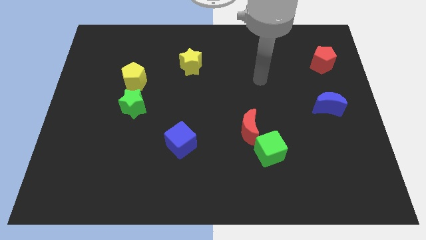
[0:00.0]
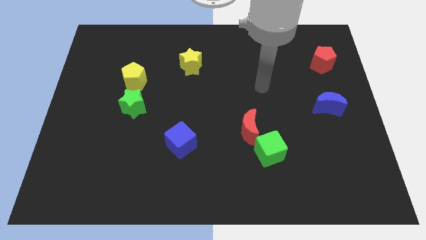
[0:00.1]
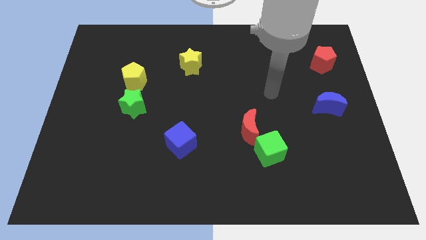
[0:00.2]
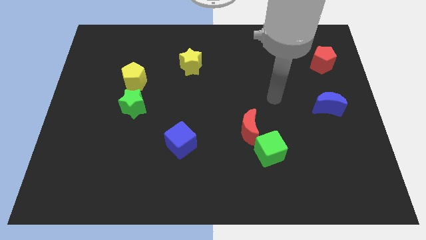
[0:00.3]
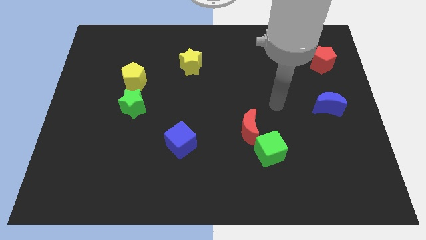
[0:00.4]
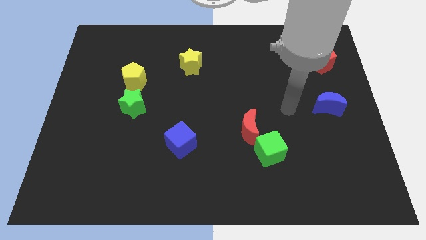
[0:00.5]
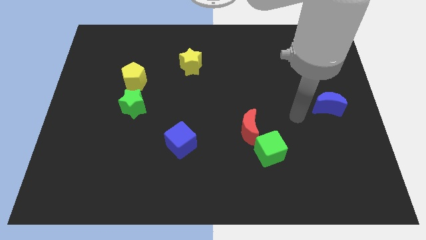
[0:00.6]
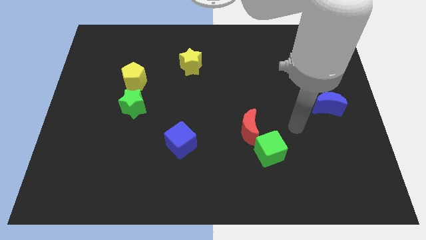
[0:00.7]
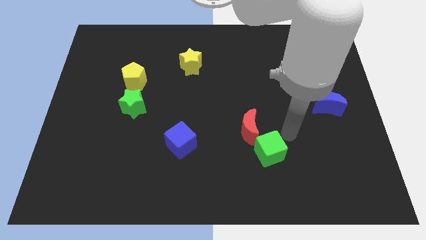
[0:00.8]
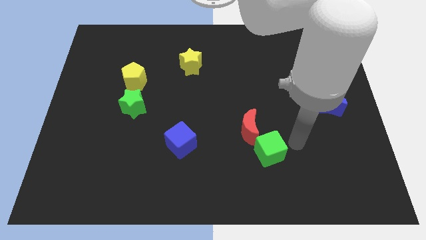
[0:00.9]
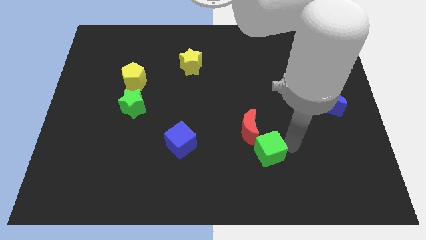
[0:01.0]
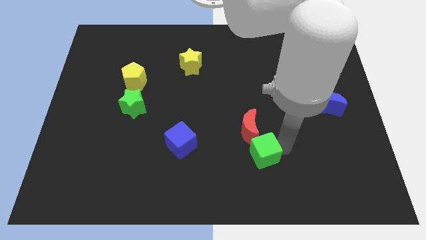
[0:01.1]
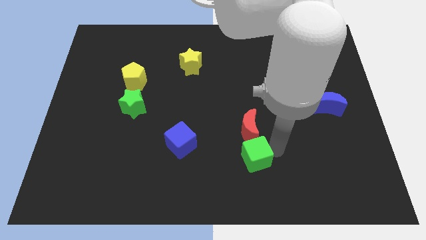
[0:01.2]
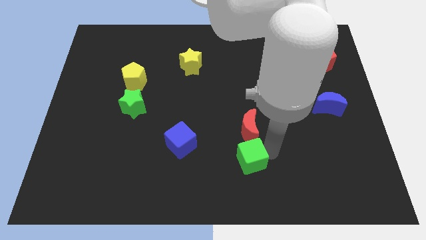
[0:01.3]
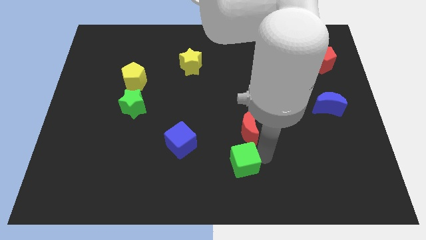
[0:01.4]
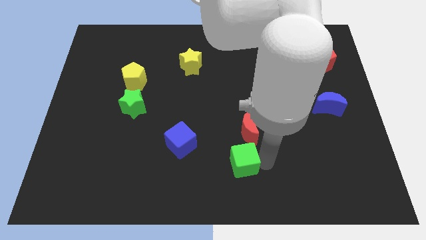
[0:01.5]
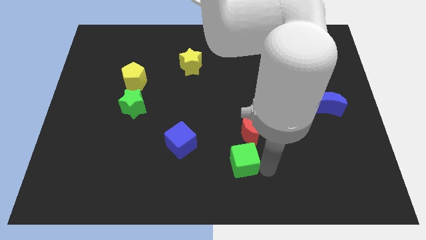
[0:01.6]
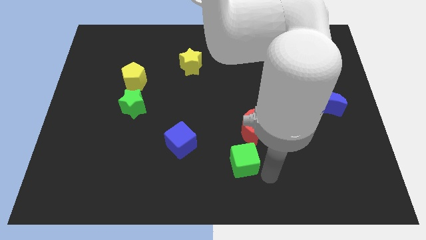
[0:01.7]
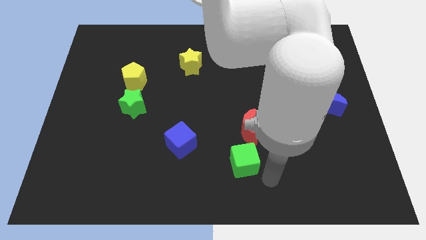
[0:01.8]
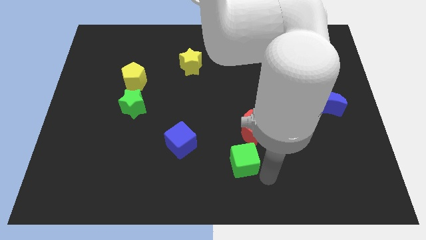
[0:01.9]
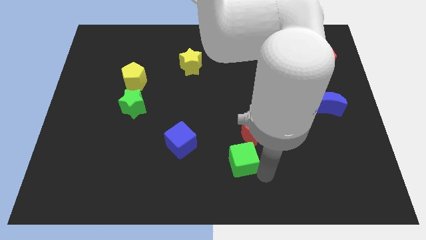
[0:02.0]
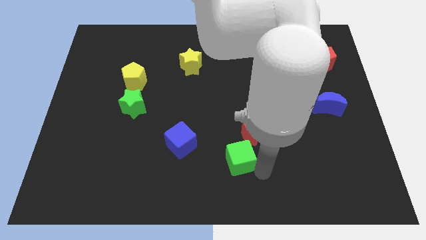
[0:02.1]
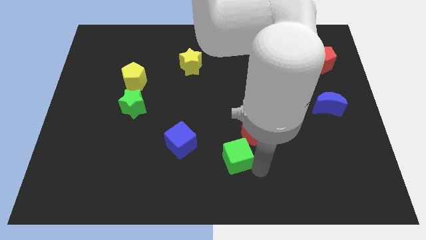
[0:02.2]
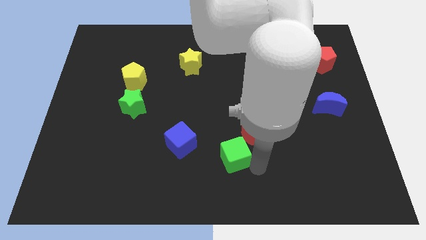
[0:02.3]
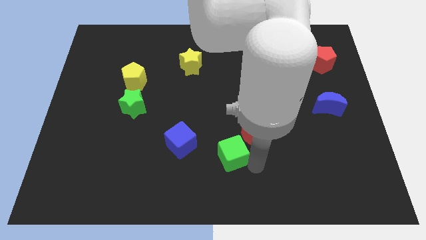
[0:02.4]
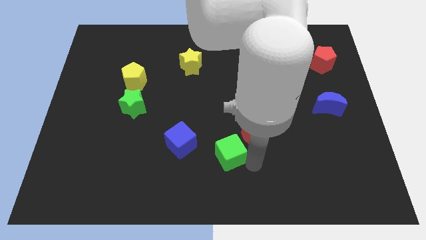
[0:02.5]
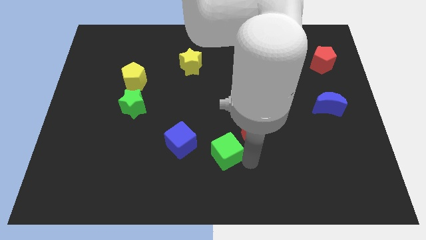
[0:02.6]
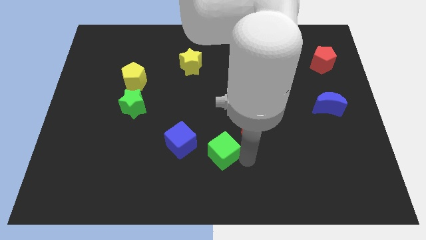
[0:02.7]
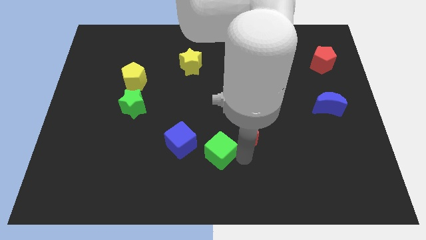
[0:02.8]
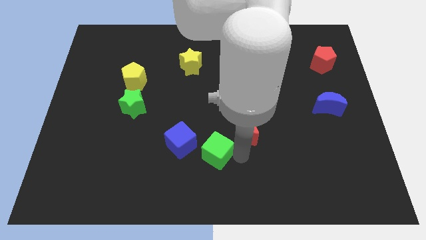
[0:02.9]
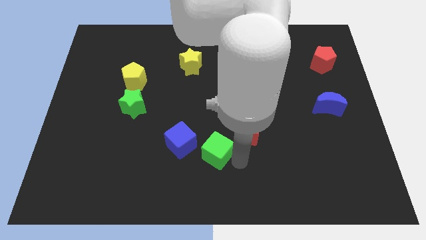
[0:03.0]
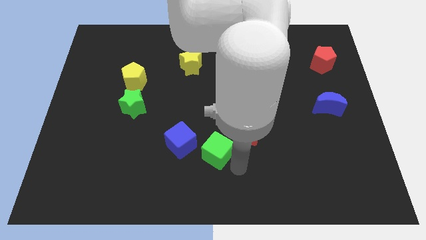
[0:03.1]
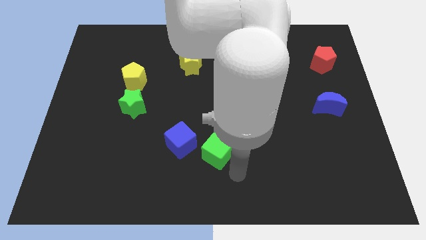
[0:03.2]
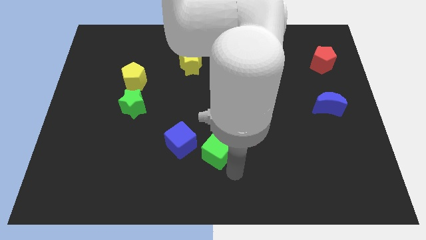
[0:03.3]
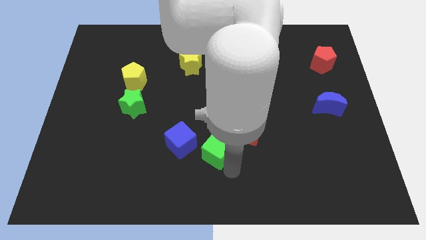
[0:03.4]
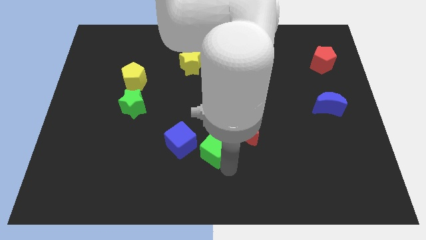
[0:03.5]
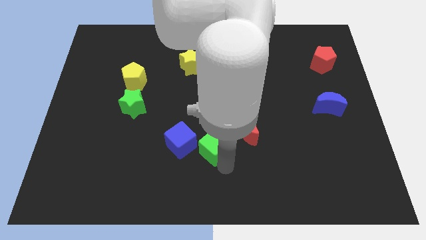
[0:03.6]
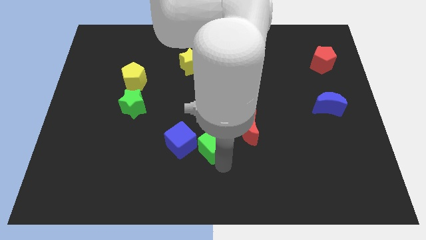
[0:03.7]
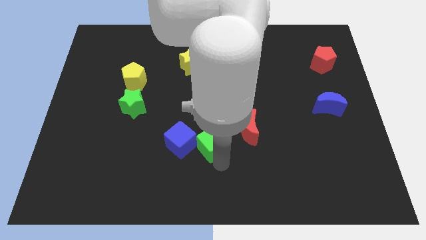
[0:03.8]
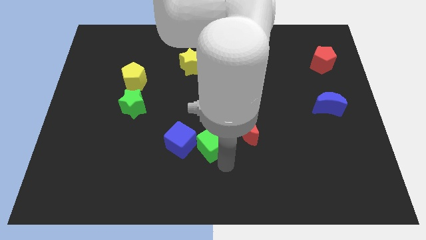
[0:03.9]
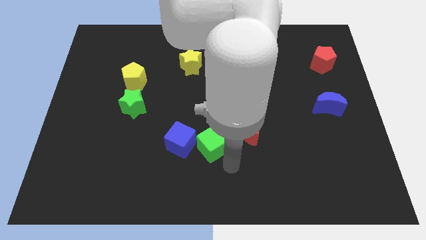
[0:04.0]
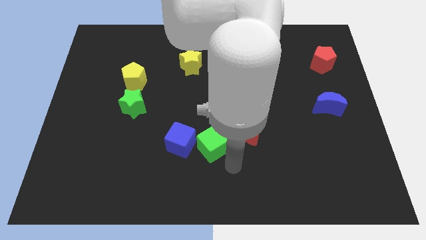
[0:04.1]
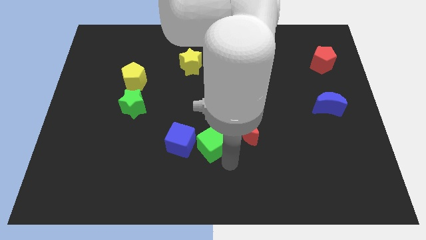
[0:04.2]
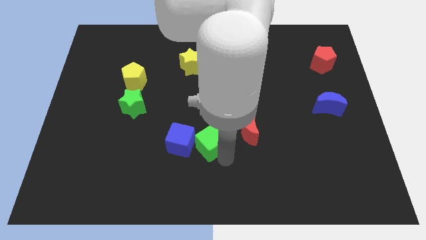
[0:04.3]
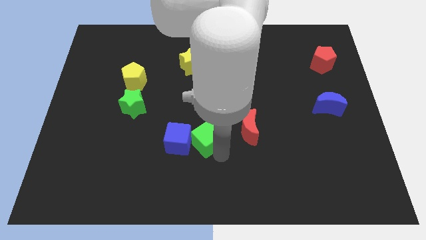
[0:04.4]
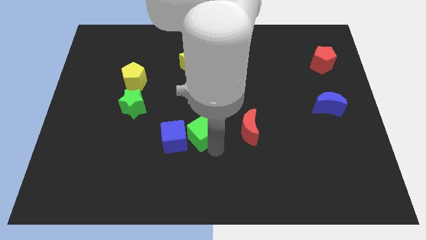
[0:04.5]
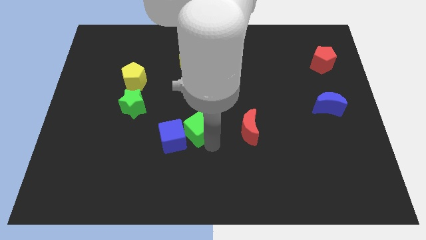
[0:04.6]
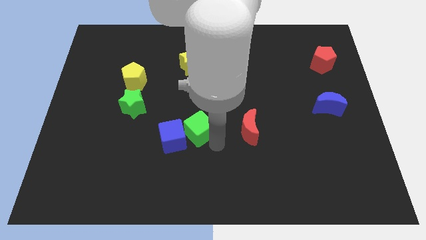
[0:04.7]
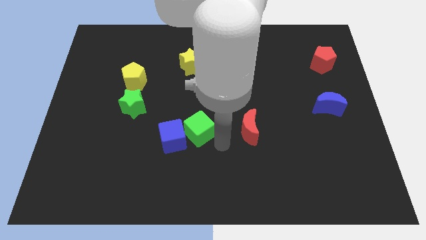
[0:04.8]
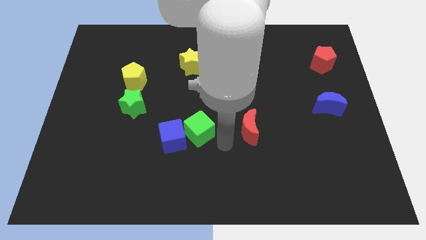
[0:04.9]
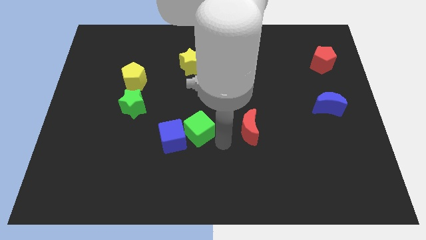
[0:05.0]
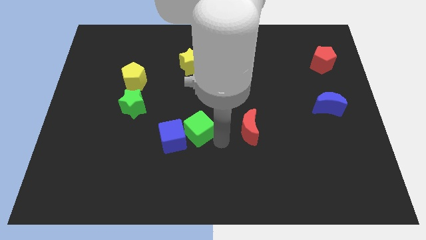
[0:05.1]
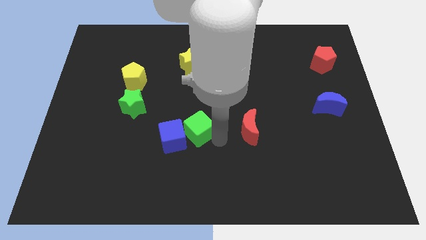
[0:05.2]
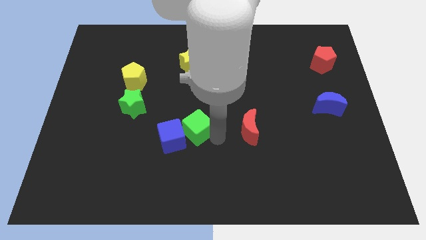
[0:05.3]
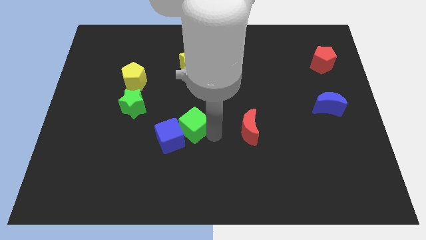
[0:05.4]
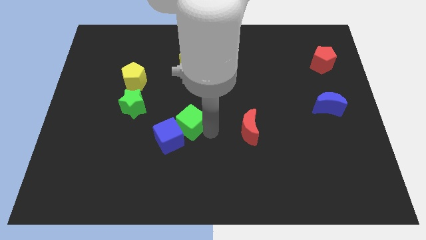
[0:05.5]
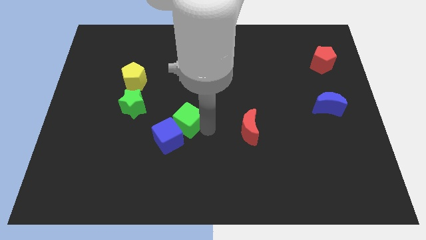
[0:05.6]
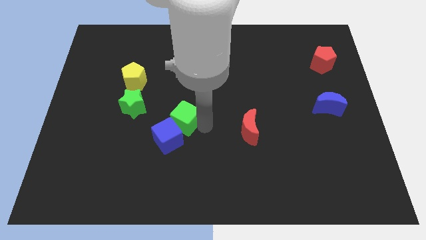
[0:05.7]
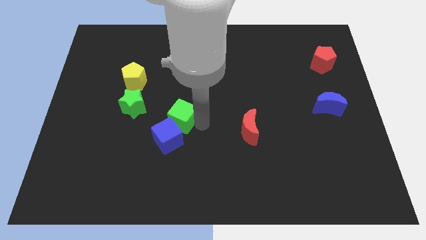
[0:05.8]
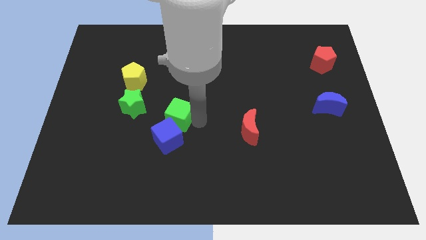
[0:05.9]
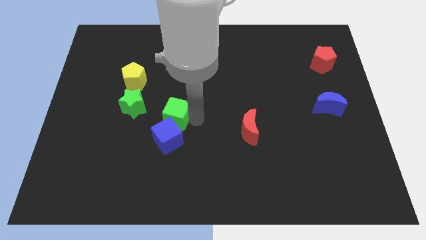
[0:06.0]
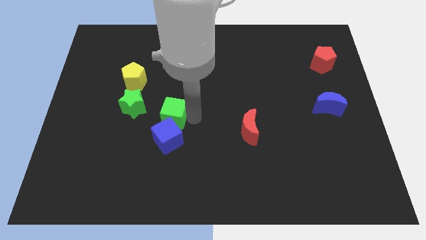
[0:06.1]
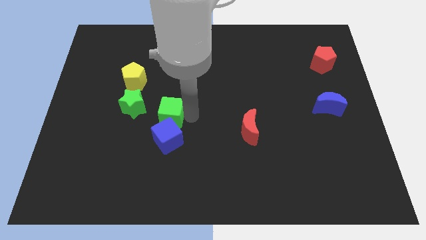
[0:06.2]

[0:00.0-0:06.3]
move the green cube diagonally up and to the left of the blue cube
